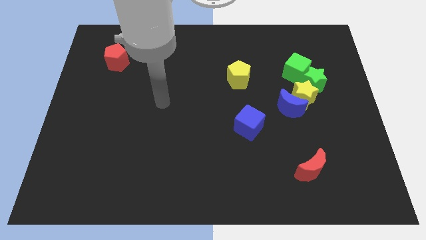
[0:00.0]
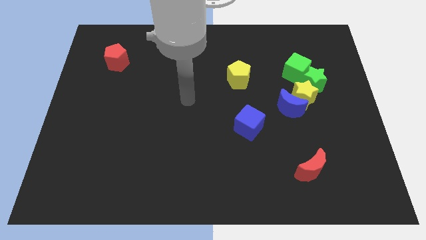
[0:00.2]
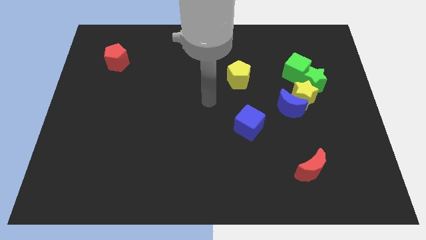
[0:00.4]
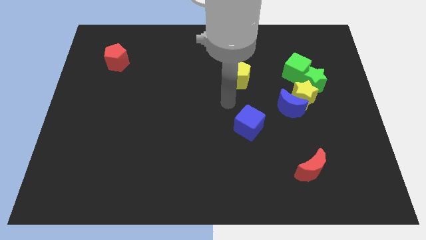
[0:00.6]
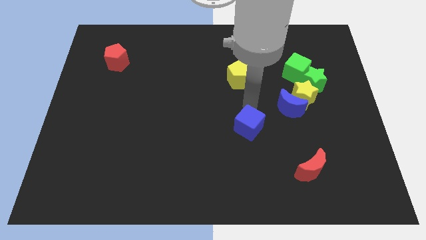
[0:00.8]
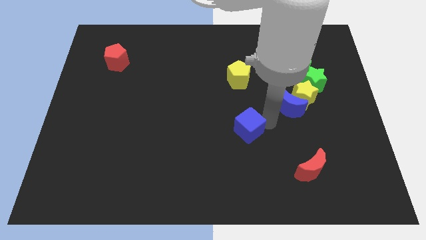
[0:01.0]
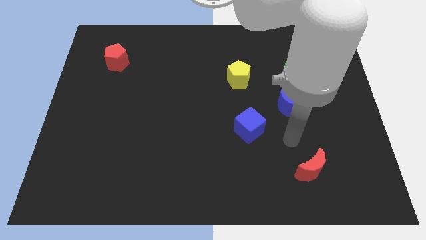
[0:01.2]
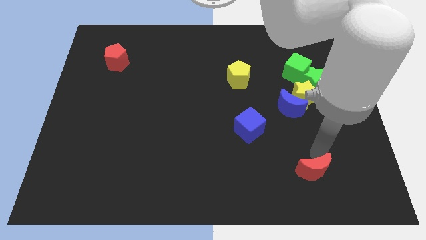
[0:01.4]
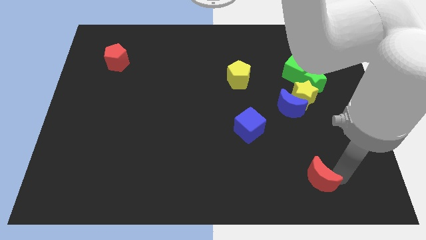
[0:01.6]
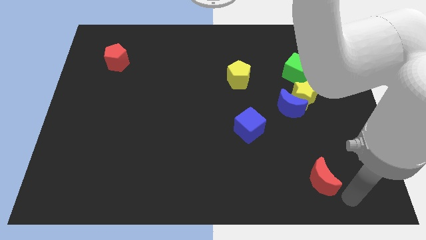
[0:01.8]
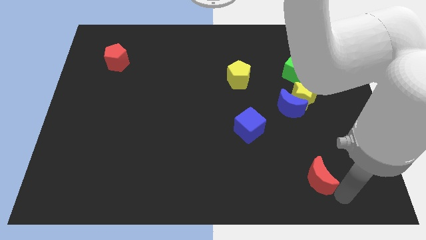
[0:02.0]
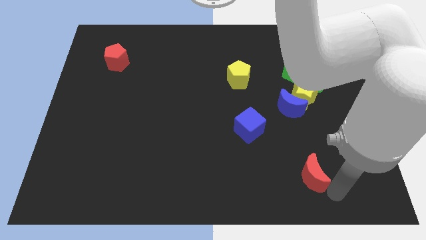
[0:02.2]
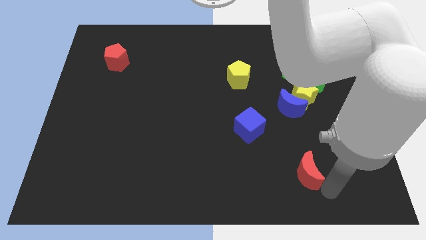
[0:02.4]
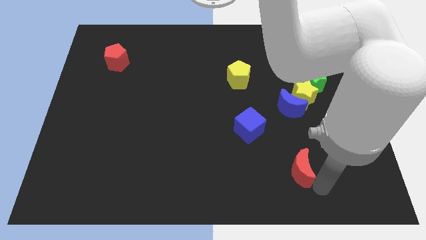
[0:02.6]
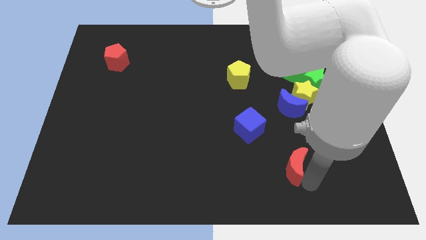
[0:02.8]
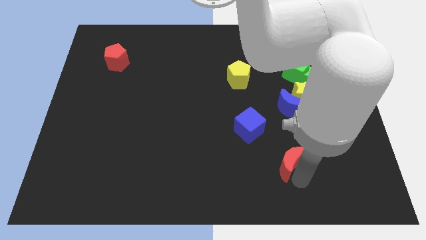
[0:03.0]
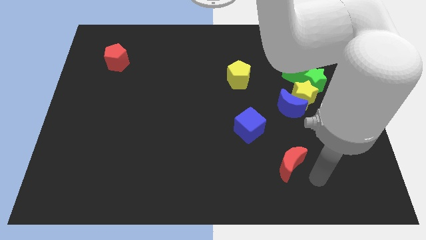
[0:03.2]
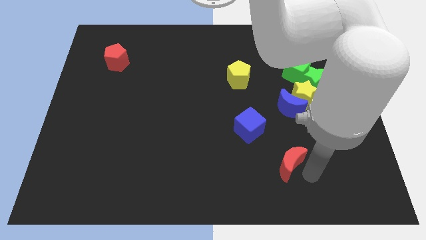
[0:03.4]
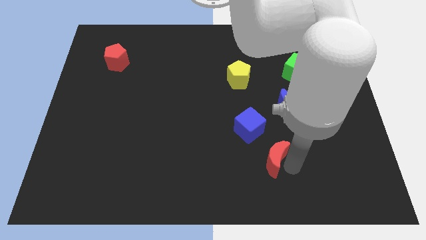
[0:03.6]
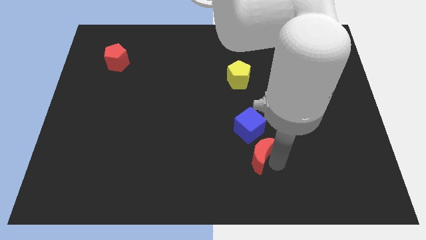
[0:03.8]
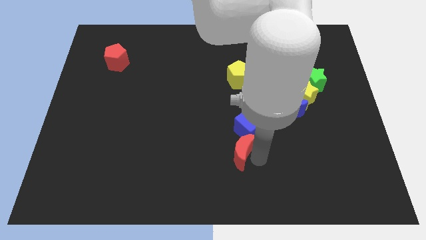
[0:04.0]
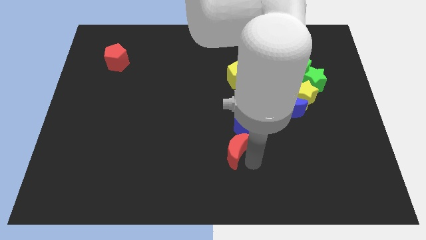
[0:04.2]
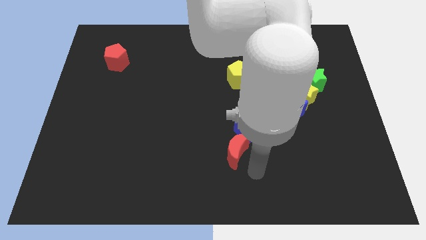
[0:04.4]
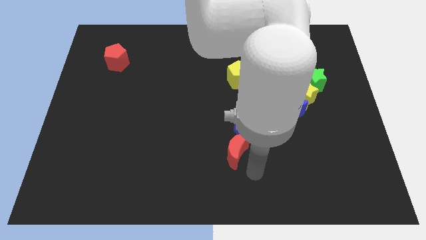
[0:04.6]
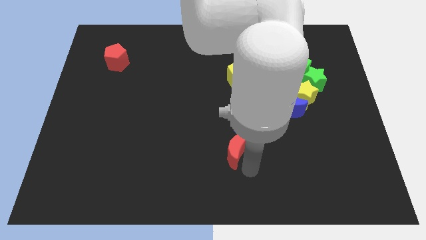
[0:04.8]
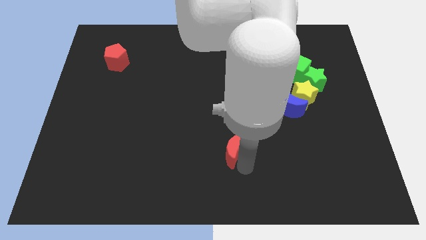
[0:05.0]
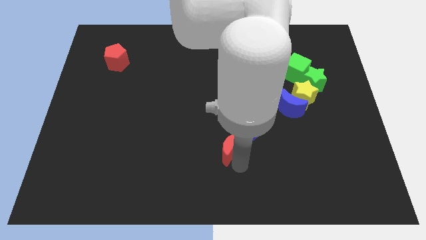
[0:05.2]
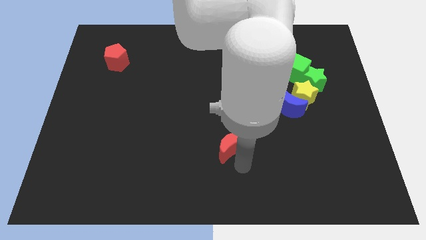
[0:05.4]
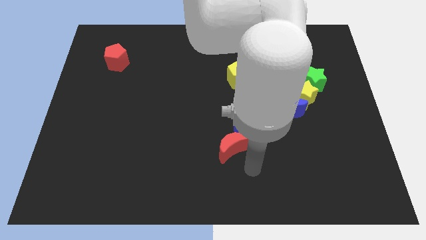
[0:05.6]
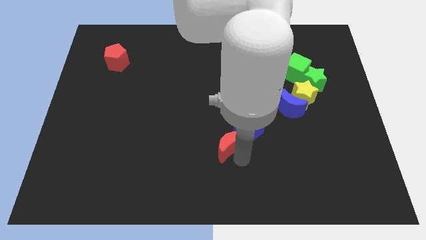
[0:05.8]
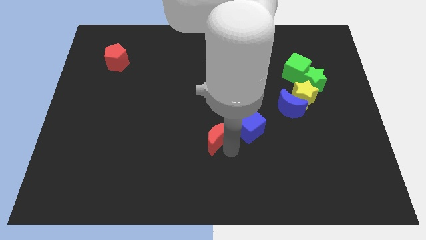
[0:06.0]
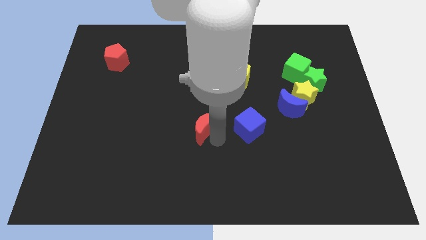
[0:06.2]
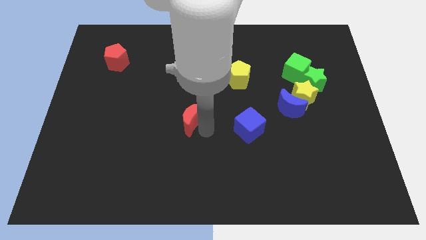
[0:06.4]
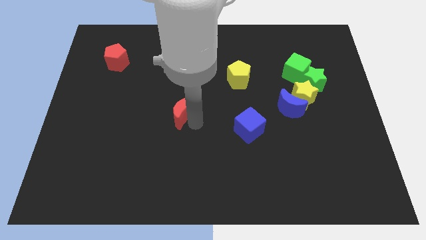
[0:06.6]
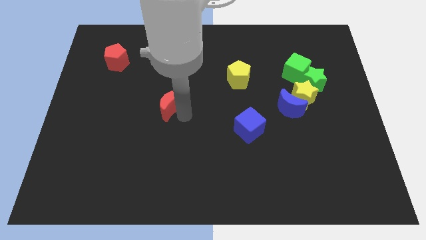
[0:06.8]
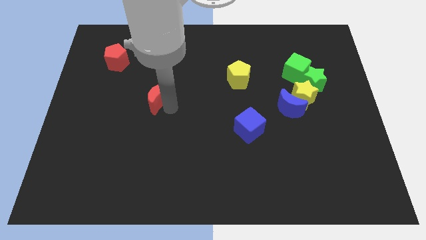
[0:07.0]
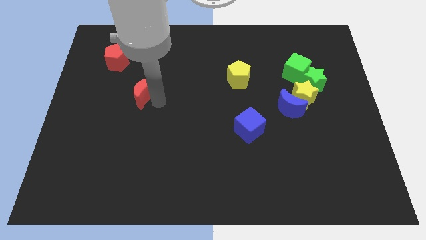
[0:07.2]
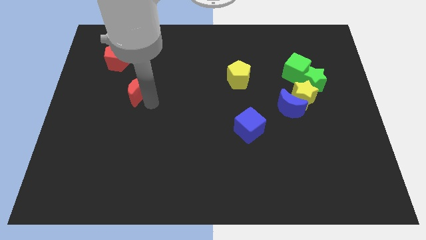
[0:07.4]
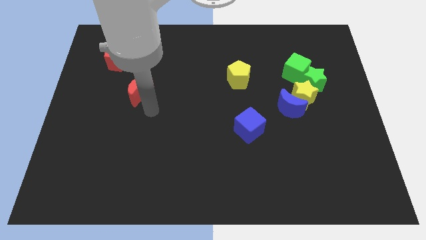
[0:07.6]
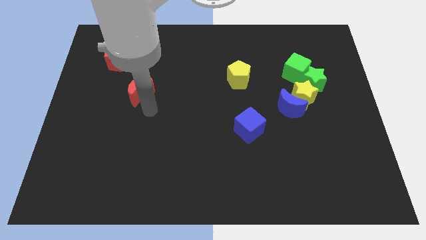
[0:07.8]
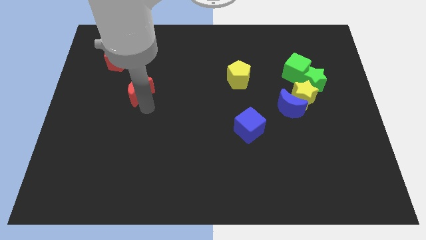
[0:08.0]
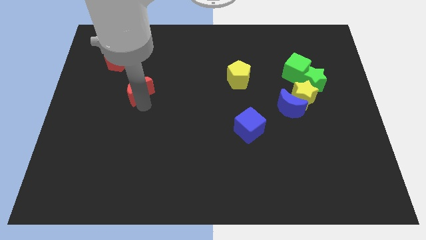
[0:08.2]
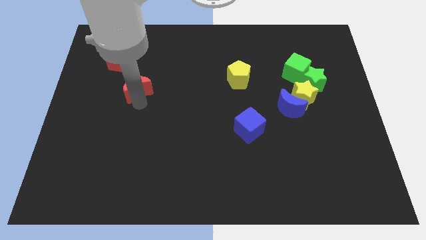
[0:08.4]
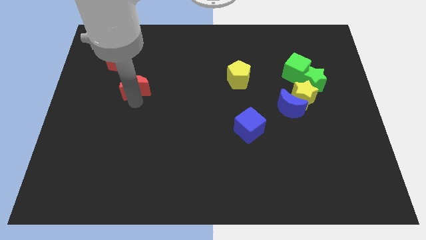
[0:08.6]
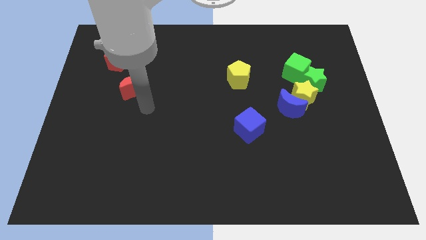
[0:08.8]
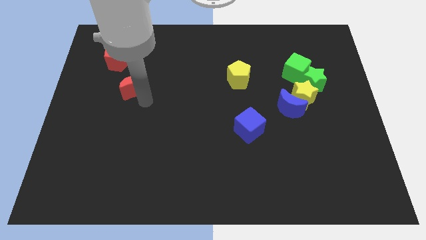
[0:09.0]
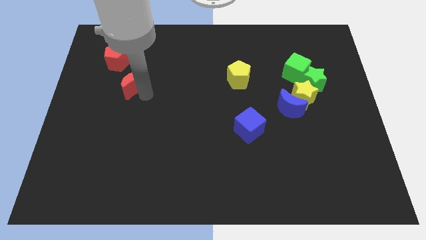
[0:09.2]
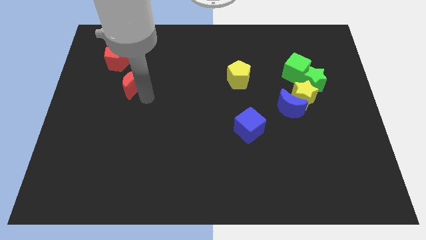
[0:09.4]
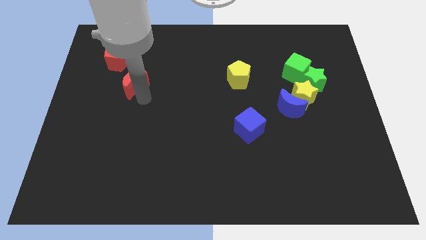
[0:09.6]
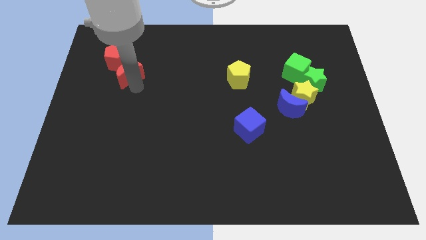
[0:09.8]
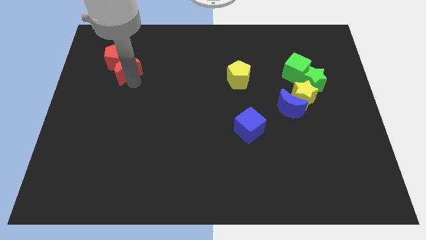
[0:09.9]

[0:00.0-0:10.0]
move the red moon next to the red pentagon

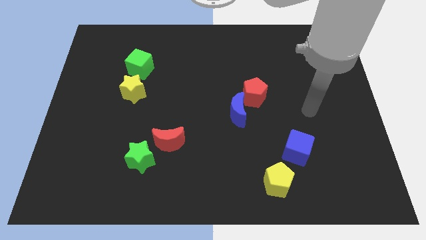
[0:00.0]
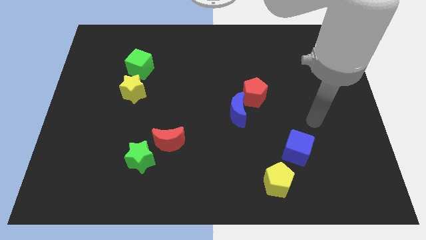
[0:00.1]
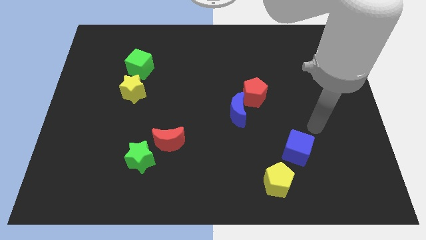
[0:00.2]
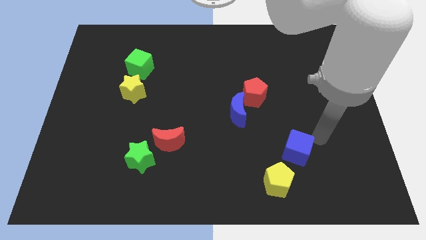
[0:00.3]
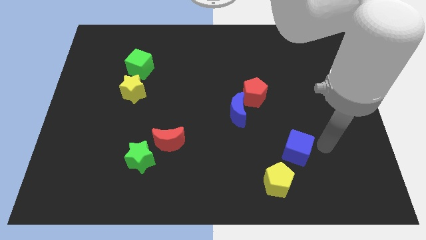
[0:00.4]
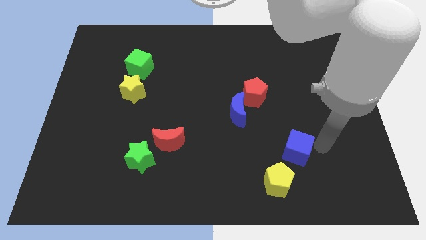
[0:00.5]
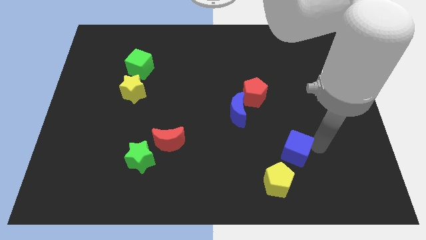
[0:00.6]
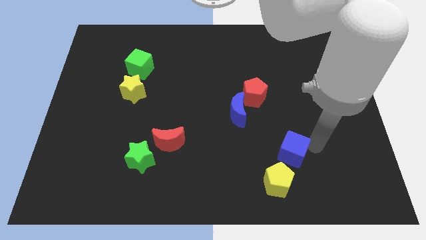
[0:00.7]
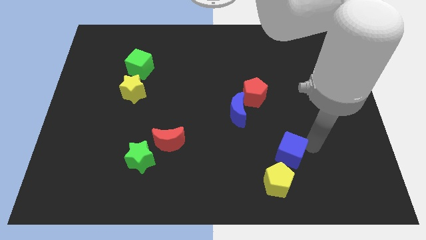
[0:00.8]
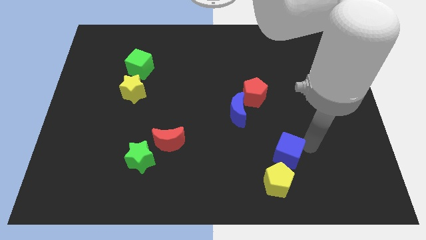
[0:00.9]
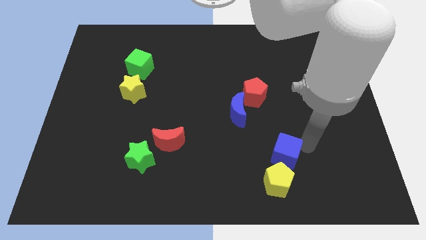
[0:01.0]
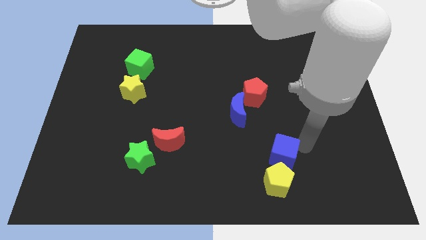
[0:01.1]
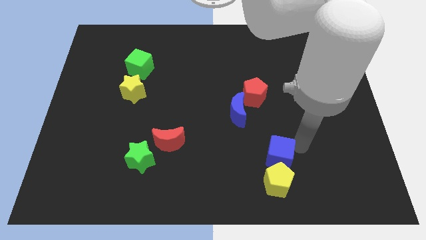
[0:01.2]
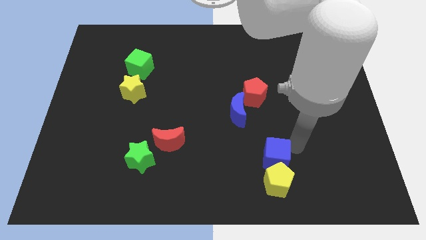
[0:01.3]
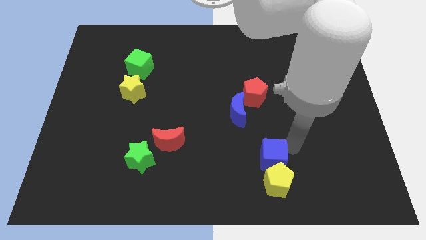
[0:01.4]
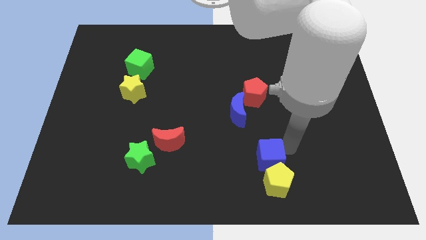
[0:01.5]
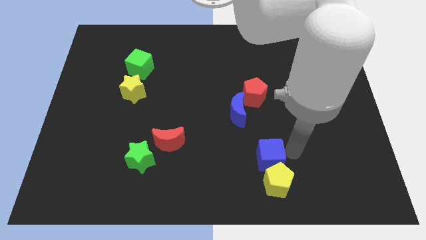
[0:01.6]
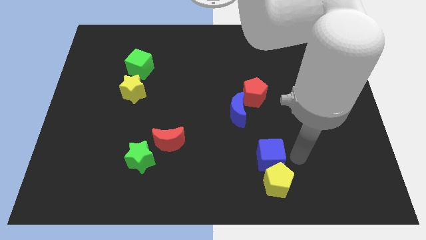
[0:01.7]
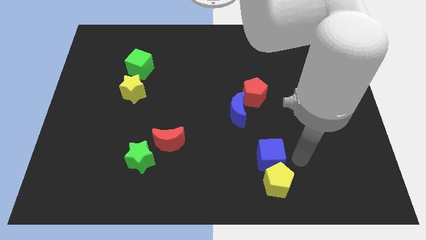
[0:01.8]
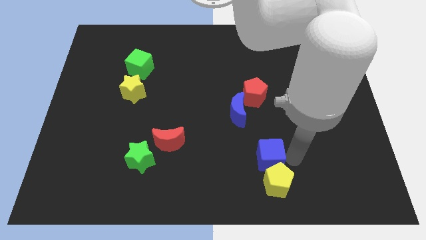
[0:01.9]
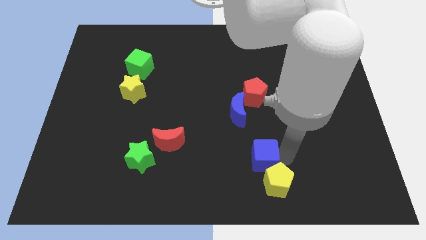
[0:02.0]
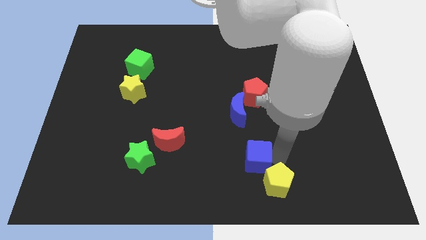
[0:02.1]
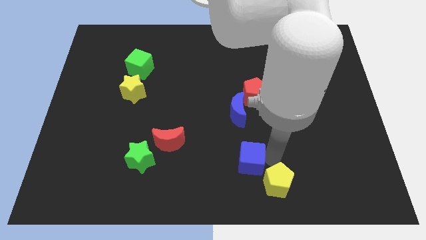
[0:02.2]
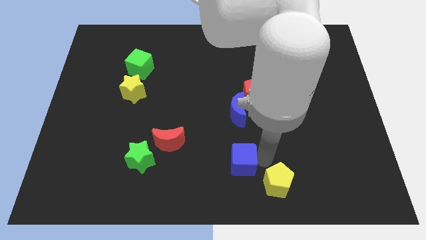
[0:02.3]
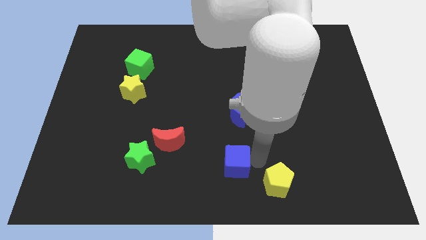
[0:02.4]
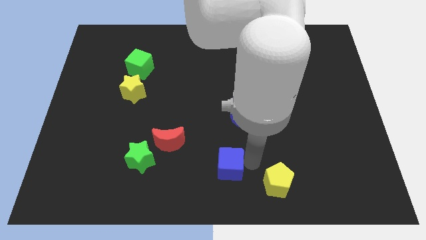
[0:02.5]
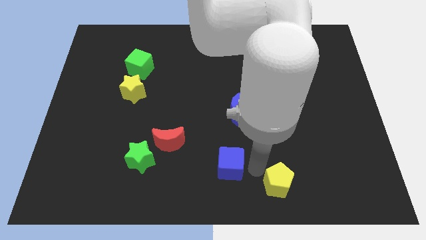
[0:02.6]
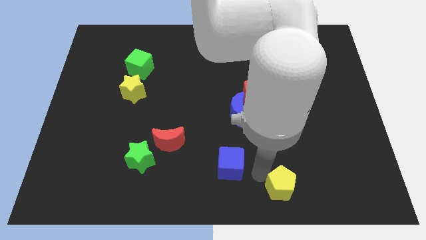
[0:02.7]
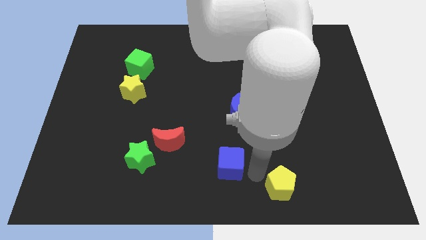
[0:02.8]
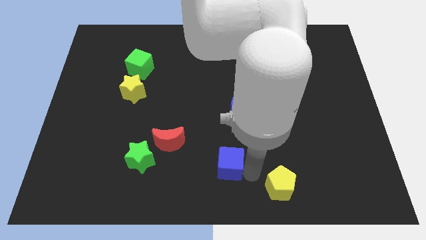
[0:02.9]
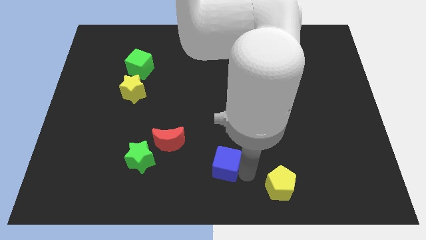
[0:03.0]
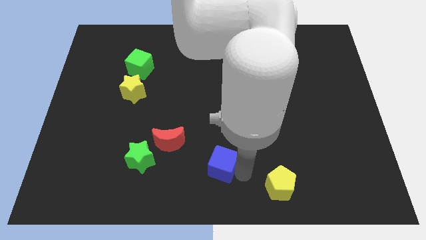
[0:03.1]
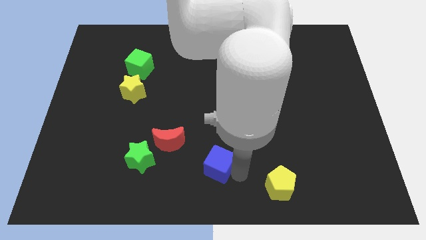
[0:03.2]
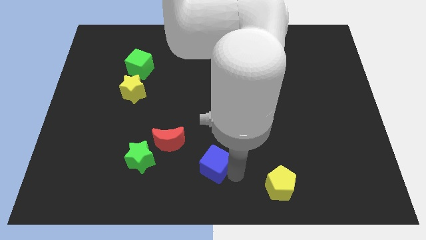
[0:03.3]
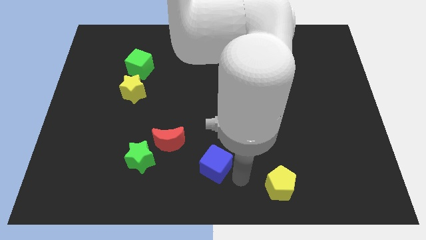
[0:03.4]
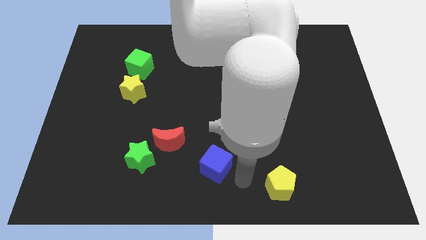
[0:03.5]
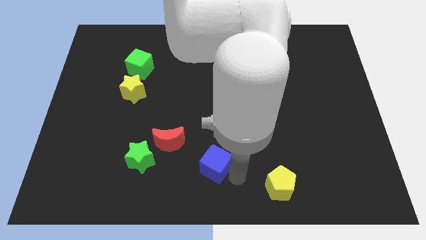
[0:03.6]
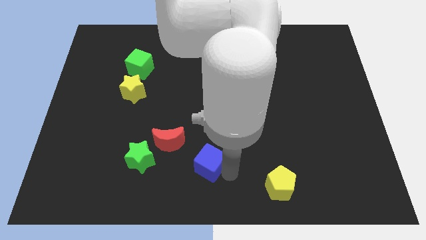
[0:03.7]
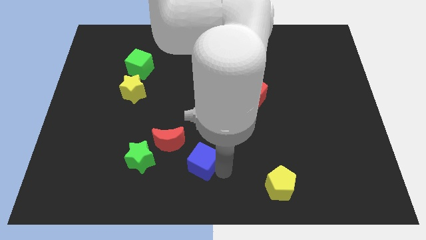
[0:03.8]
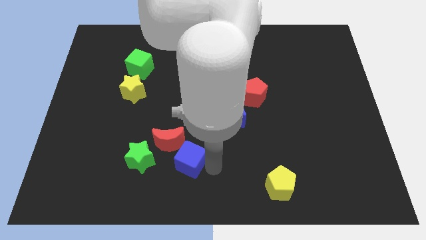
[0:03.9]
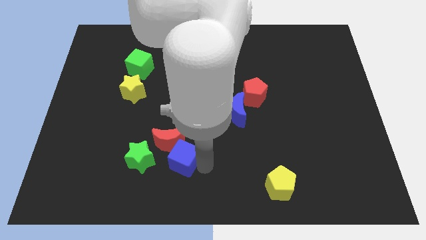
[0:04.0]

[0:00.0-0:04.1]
slide the blue cube to the red moon
